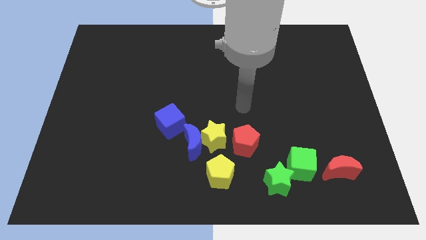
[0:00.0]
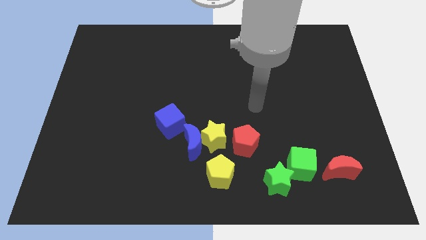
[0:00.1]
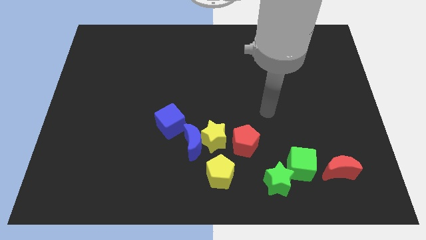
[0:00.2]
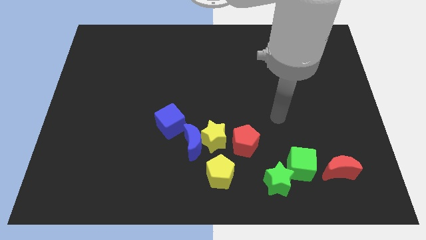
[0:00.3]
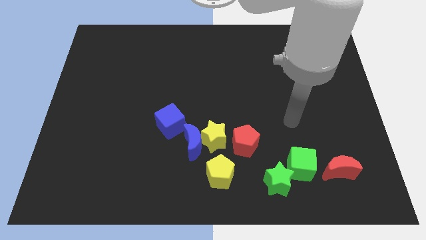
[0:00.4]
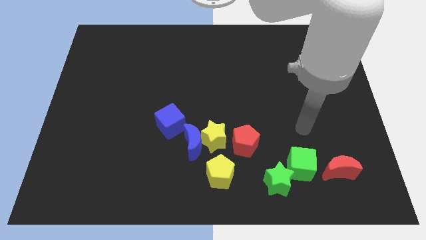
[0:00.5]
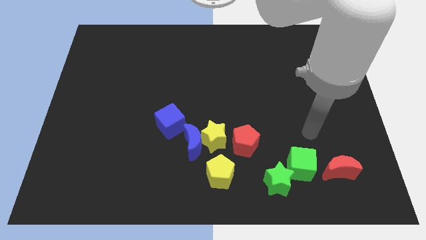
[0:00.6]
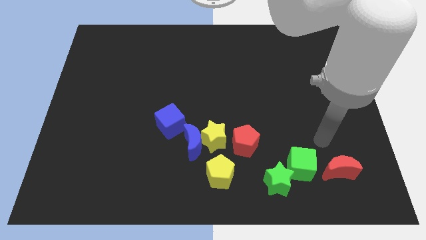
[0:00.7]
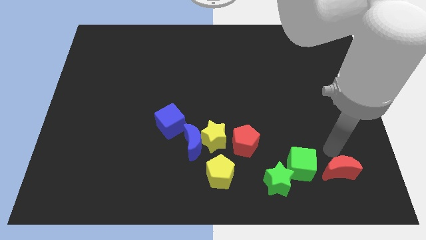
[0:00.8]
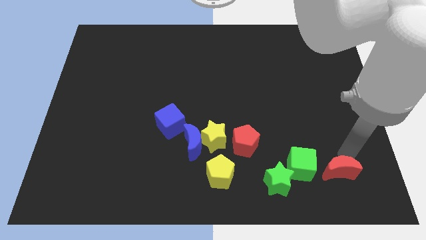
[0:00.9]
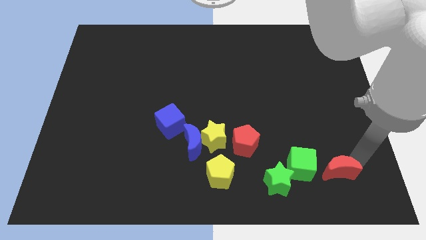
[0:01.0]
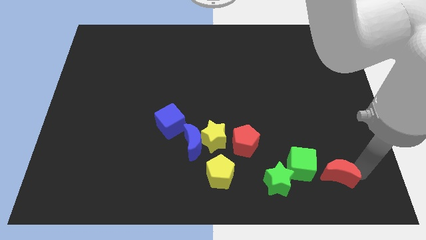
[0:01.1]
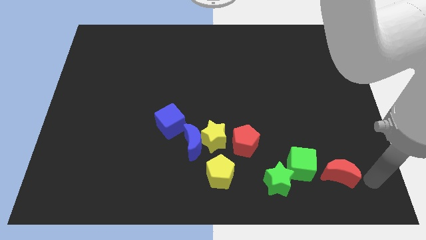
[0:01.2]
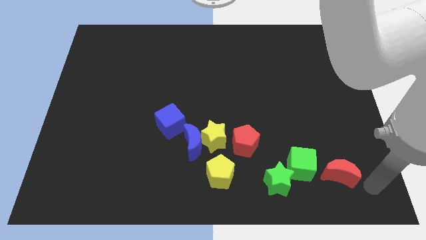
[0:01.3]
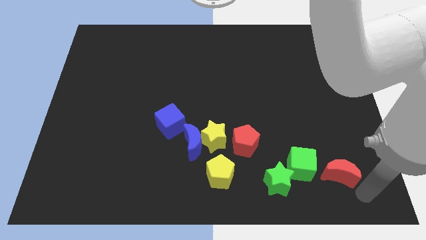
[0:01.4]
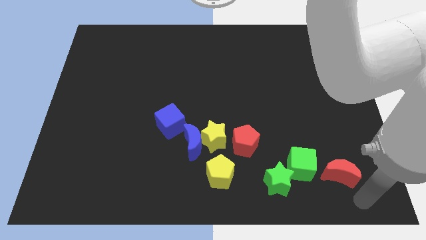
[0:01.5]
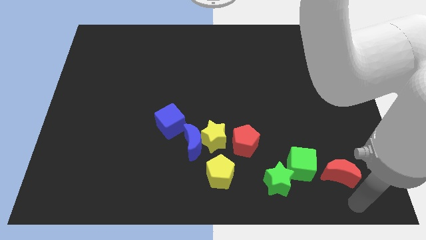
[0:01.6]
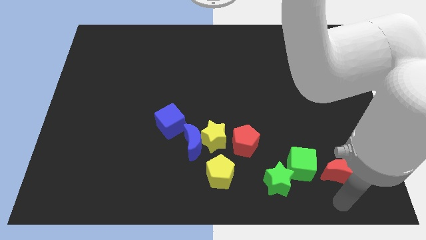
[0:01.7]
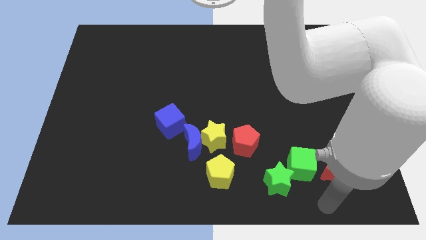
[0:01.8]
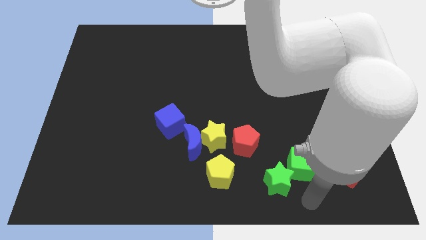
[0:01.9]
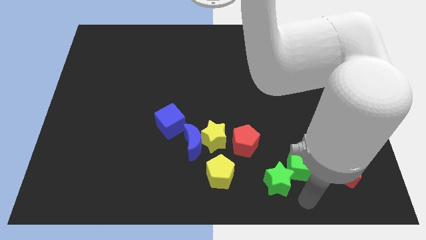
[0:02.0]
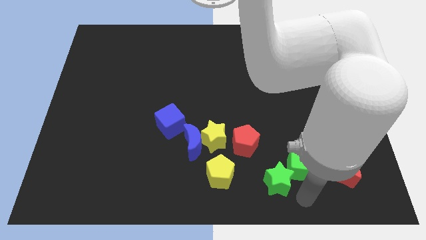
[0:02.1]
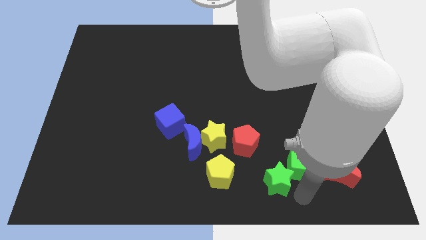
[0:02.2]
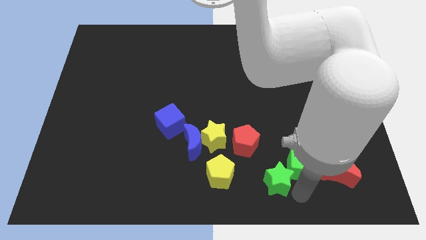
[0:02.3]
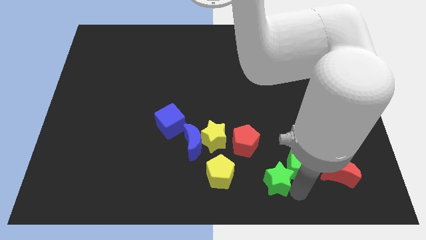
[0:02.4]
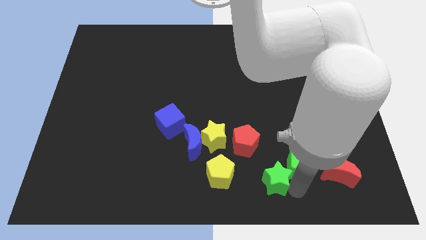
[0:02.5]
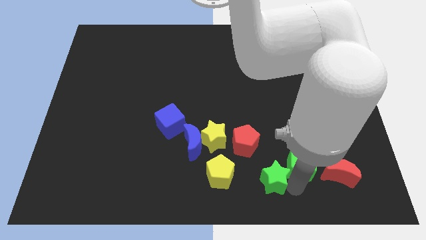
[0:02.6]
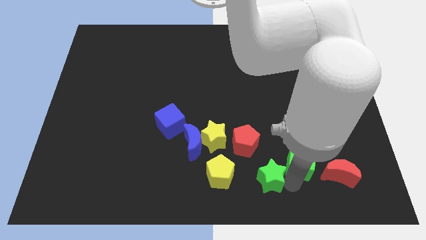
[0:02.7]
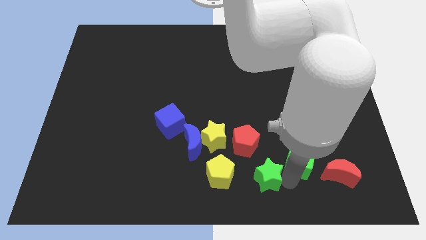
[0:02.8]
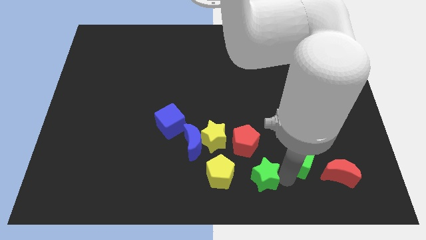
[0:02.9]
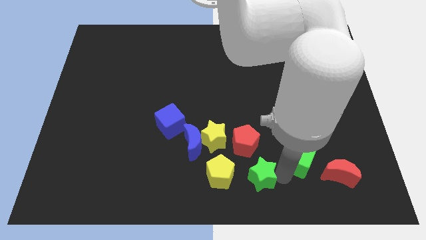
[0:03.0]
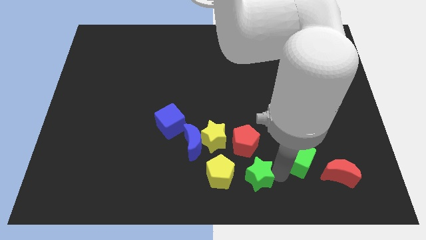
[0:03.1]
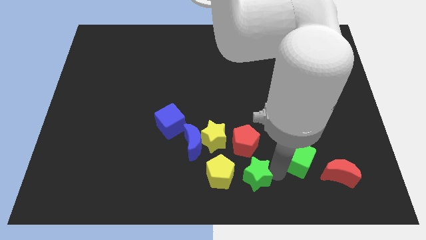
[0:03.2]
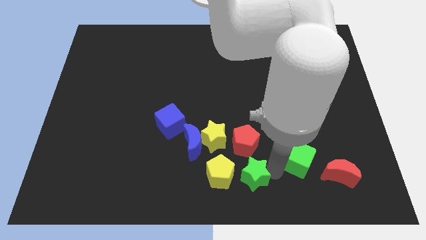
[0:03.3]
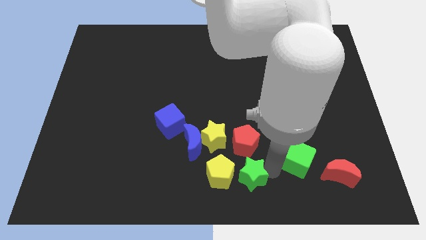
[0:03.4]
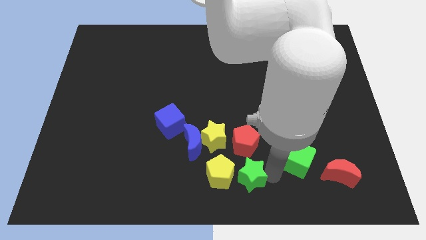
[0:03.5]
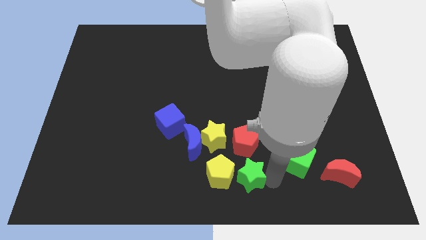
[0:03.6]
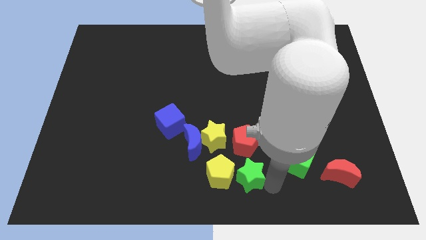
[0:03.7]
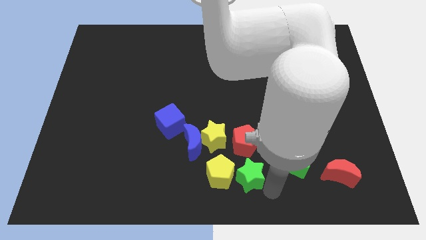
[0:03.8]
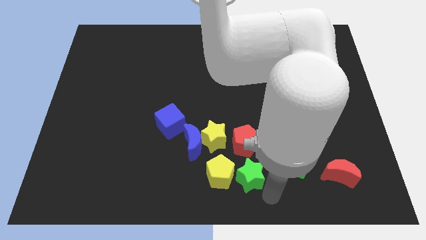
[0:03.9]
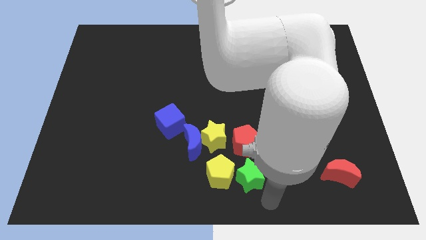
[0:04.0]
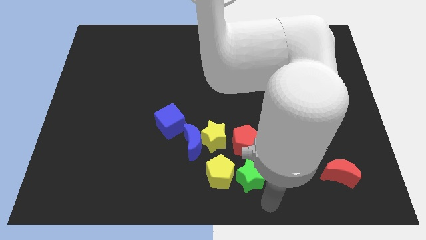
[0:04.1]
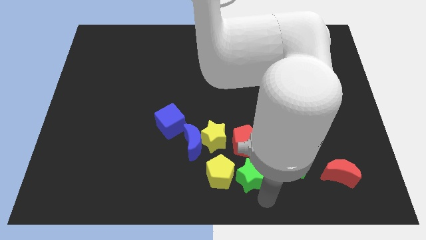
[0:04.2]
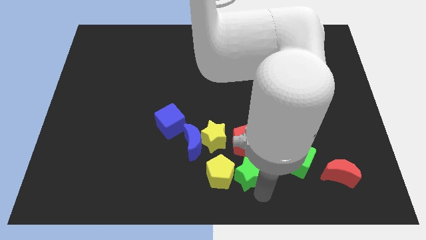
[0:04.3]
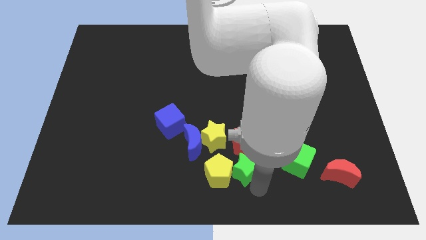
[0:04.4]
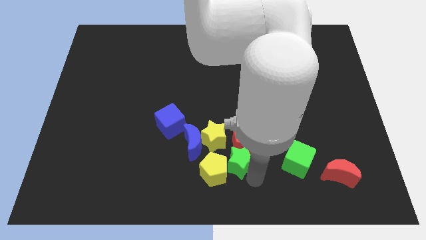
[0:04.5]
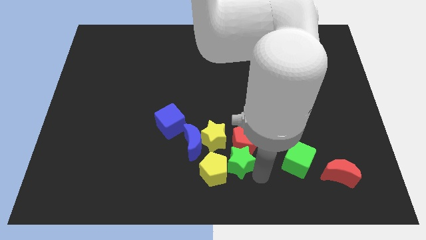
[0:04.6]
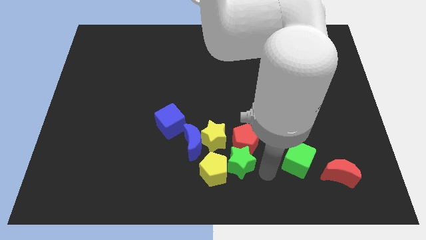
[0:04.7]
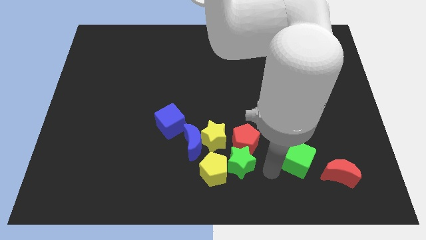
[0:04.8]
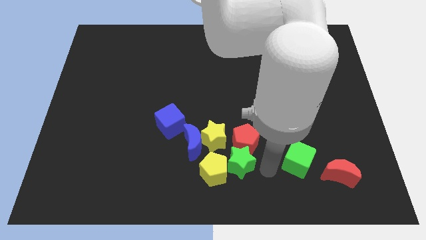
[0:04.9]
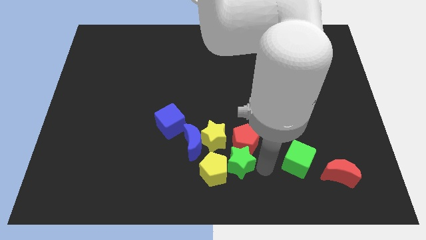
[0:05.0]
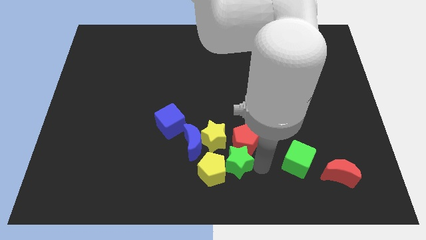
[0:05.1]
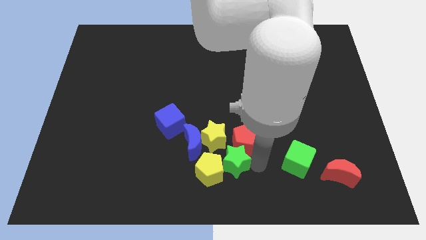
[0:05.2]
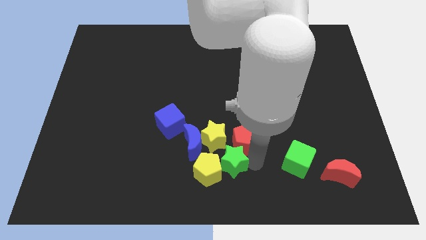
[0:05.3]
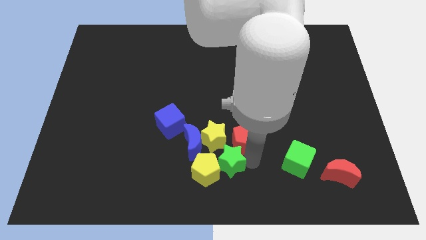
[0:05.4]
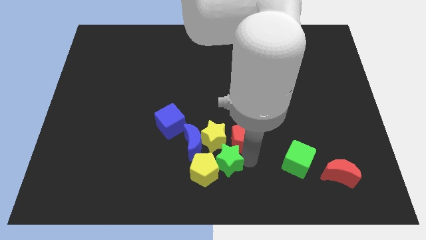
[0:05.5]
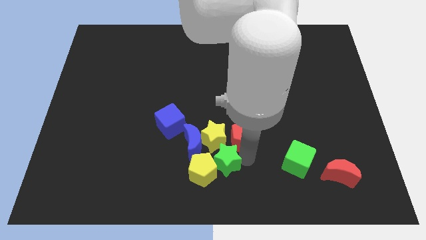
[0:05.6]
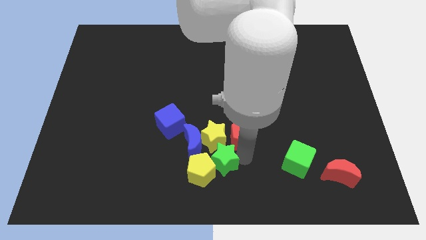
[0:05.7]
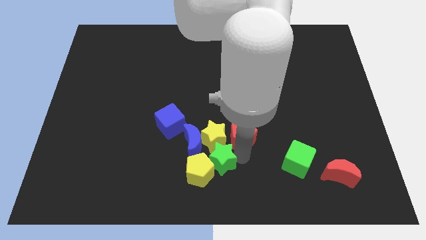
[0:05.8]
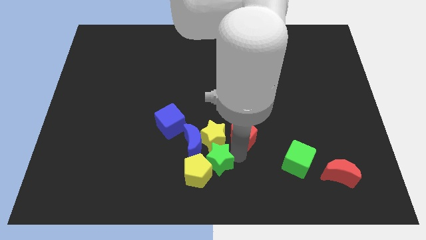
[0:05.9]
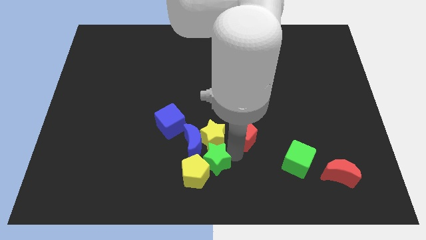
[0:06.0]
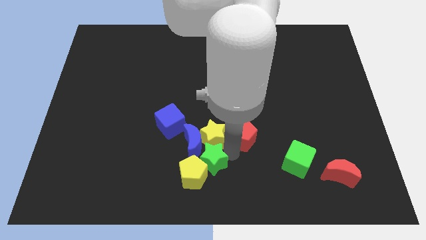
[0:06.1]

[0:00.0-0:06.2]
put the green star to the blue moon

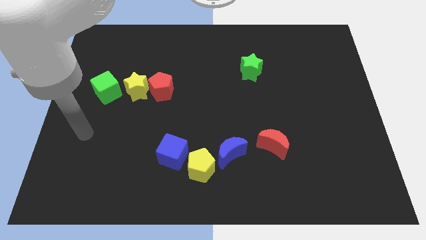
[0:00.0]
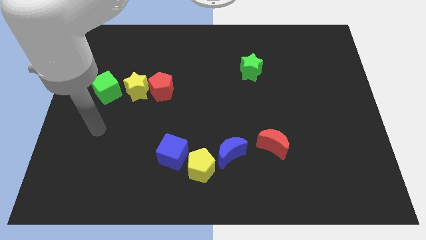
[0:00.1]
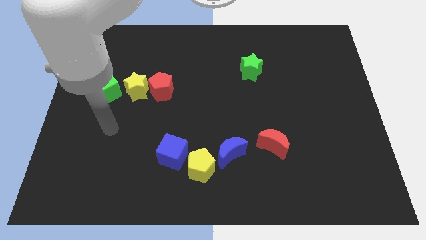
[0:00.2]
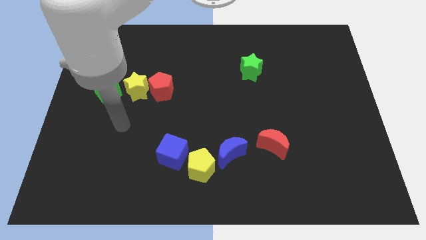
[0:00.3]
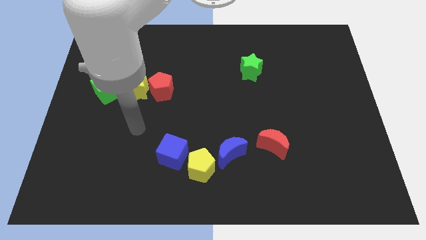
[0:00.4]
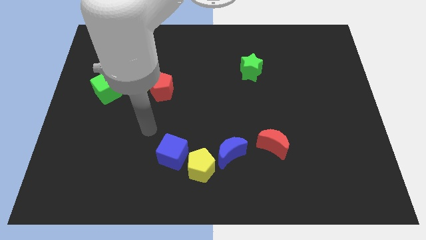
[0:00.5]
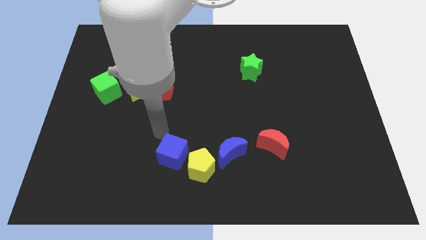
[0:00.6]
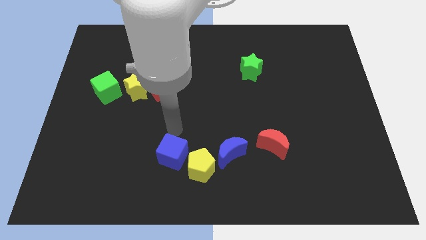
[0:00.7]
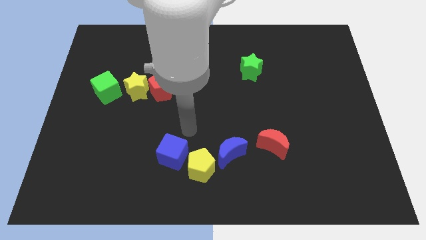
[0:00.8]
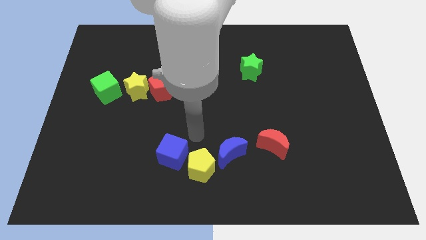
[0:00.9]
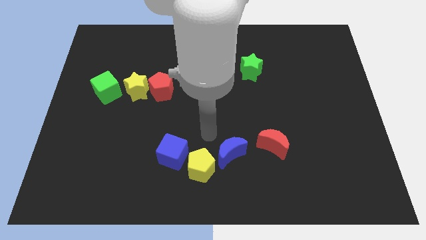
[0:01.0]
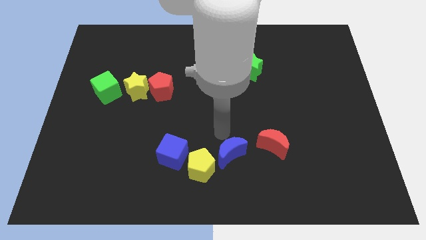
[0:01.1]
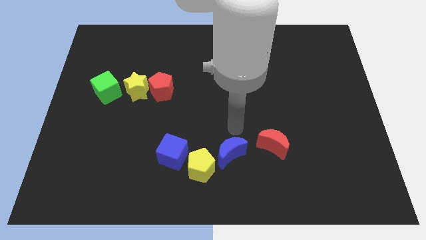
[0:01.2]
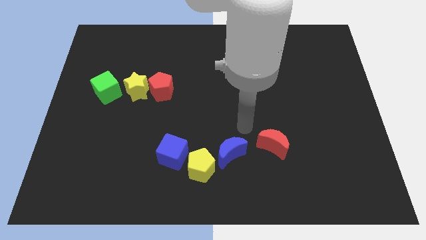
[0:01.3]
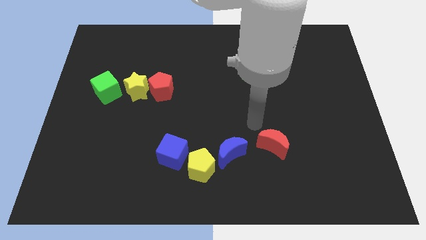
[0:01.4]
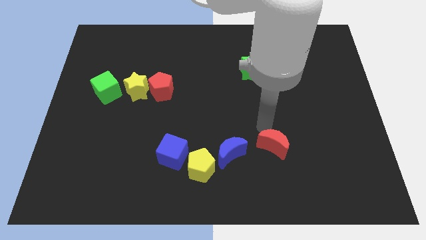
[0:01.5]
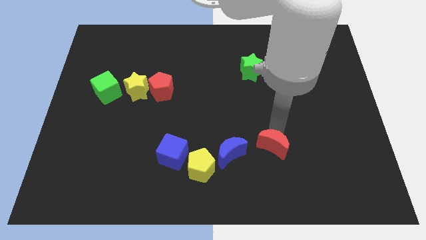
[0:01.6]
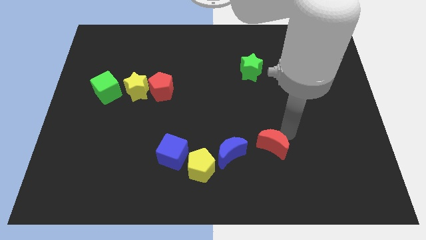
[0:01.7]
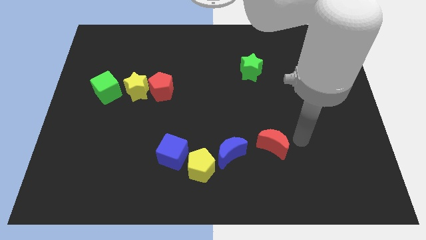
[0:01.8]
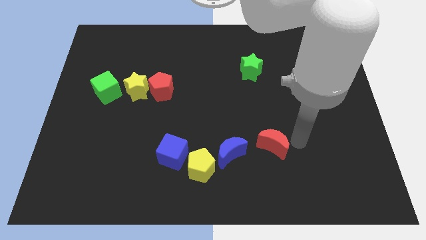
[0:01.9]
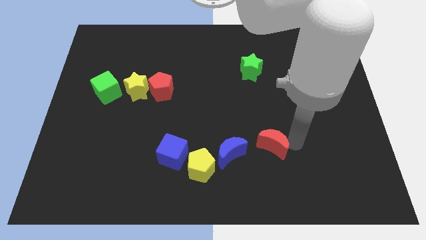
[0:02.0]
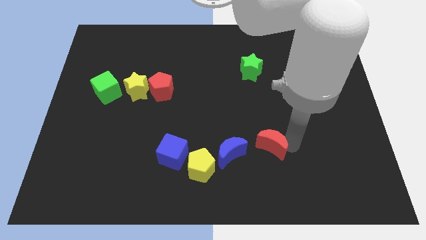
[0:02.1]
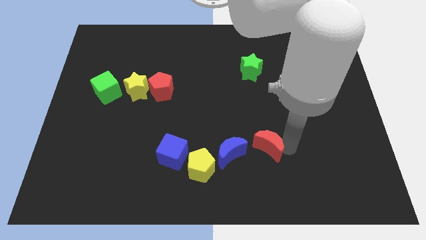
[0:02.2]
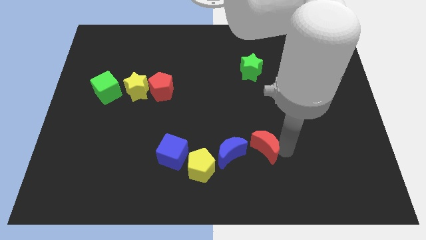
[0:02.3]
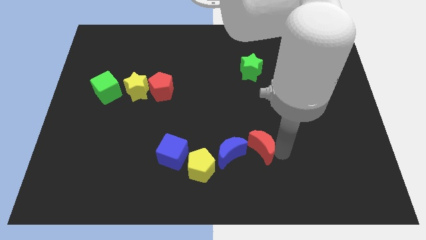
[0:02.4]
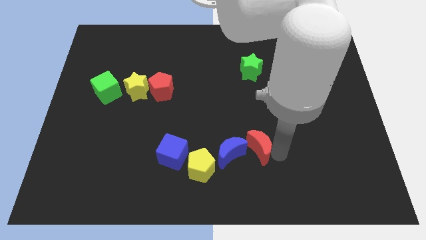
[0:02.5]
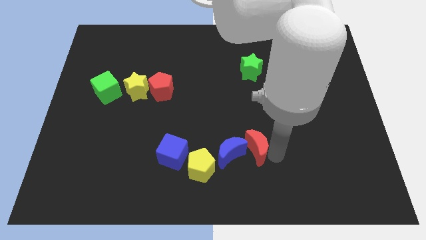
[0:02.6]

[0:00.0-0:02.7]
move the red moon towards the blue moon
